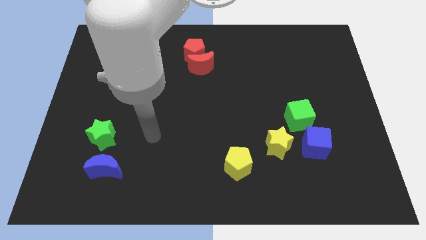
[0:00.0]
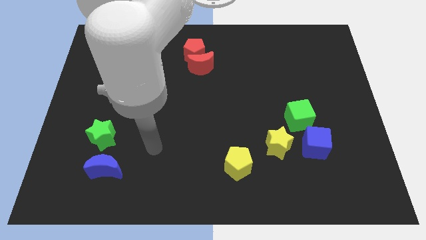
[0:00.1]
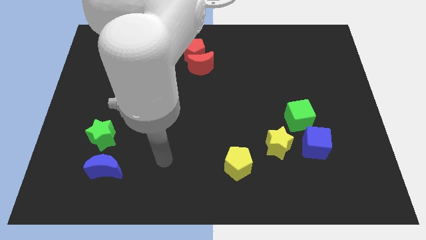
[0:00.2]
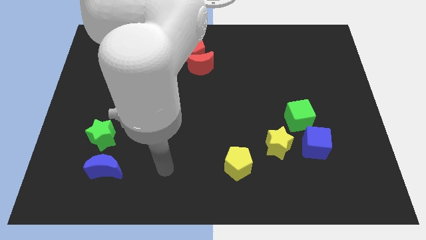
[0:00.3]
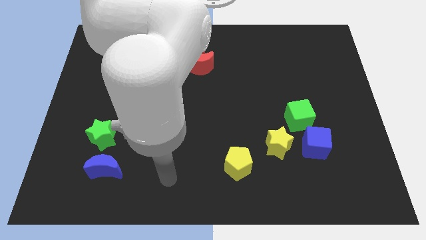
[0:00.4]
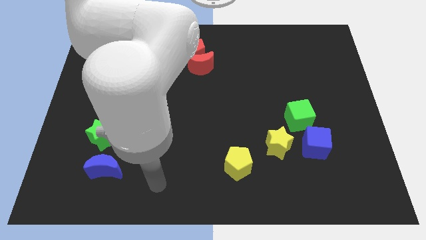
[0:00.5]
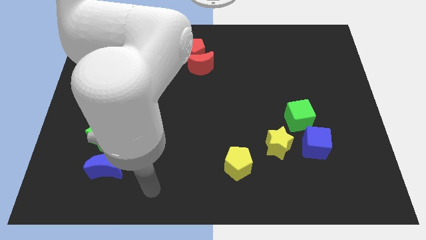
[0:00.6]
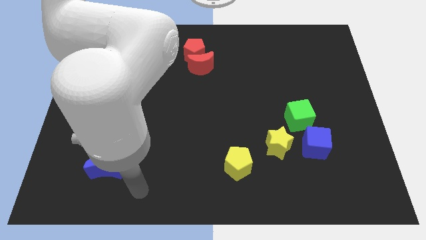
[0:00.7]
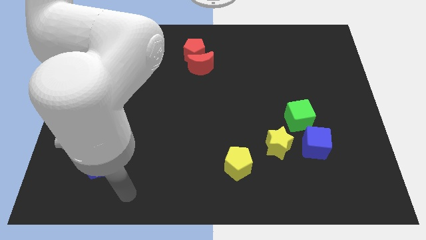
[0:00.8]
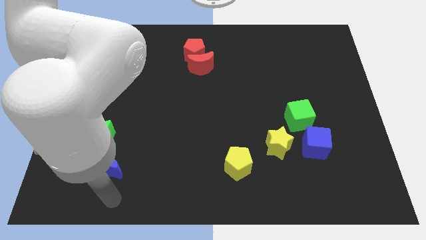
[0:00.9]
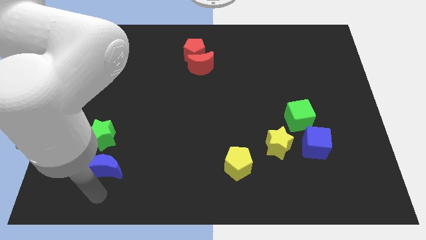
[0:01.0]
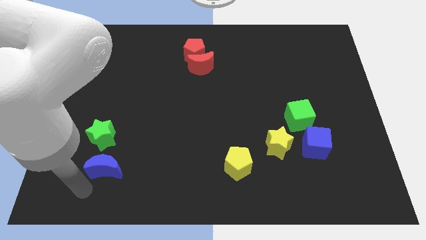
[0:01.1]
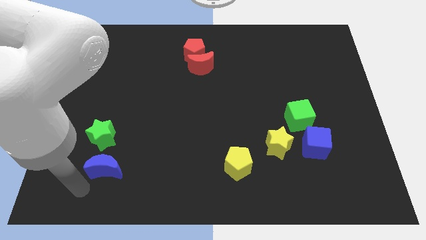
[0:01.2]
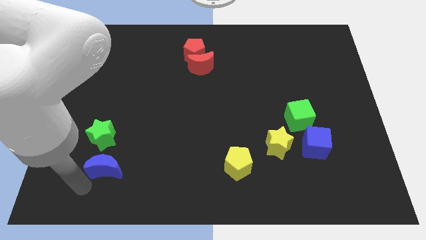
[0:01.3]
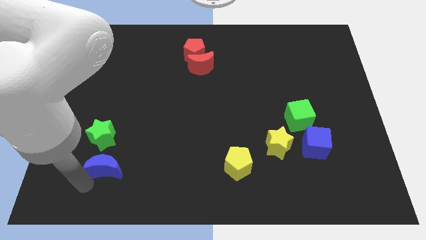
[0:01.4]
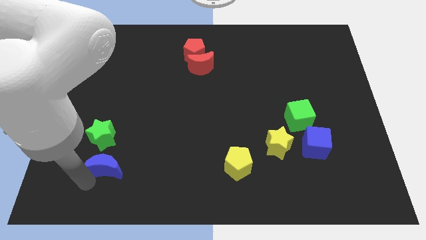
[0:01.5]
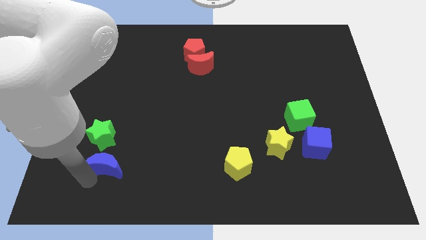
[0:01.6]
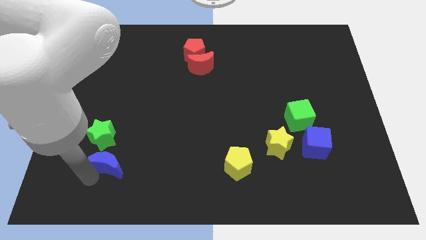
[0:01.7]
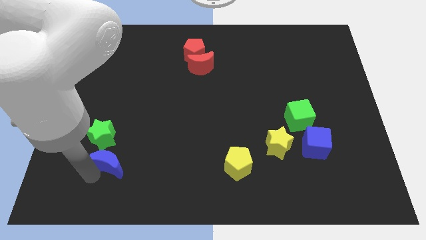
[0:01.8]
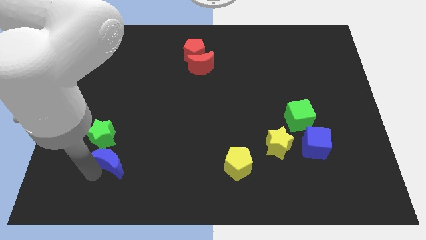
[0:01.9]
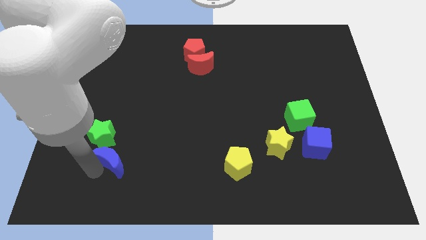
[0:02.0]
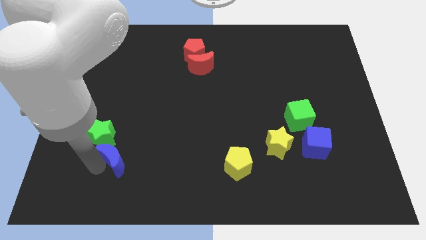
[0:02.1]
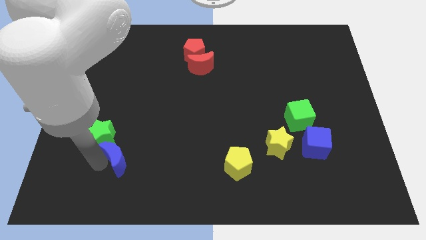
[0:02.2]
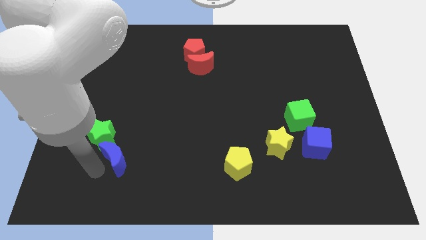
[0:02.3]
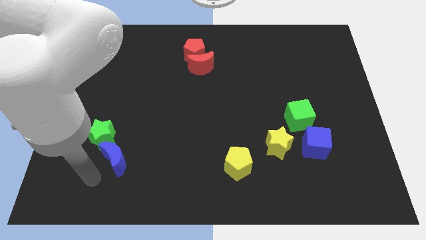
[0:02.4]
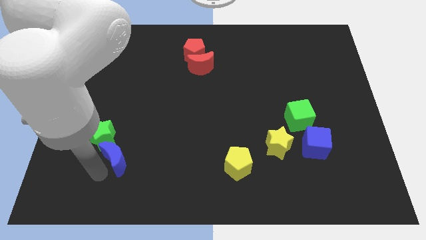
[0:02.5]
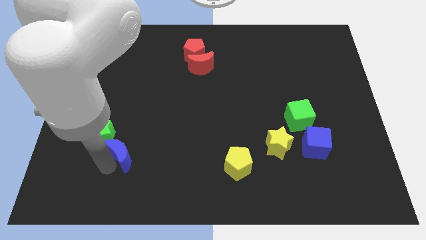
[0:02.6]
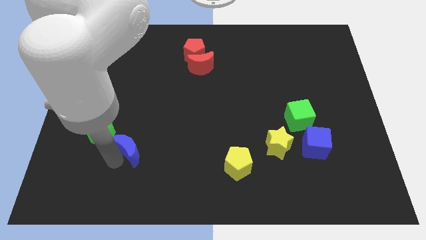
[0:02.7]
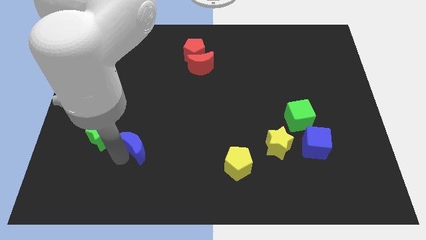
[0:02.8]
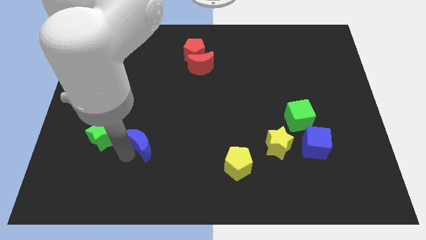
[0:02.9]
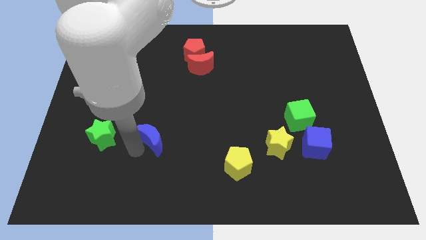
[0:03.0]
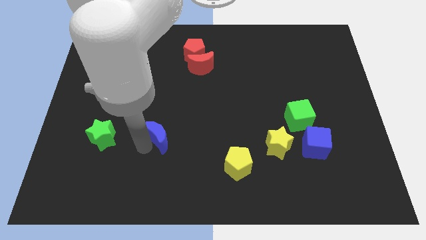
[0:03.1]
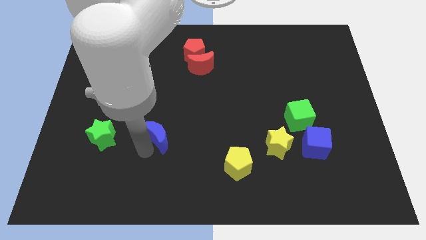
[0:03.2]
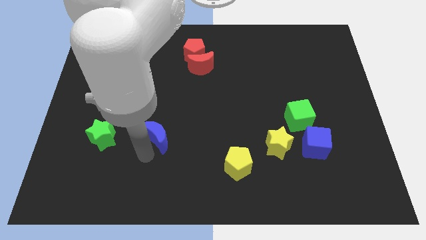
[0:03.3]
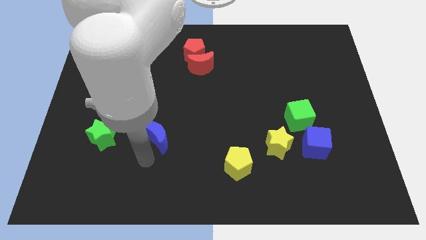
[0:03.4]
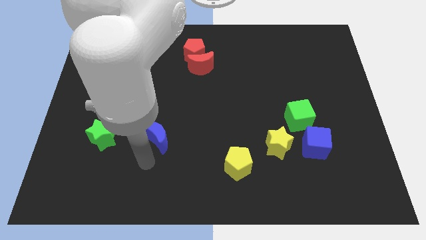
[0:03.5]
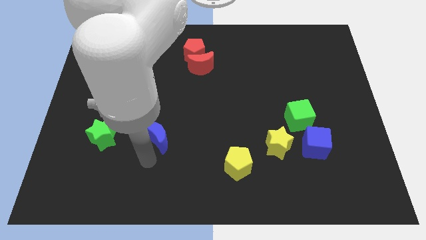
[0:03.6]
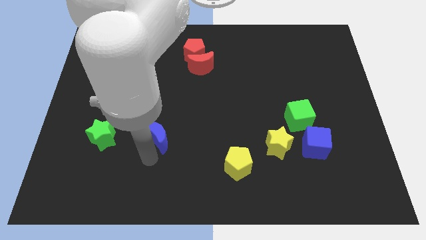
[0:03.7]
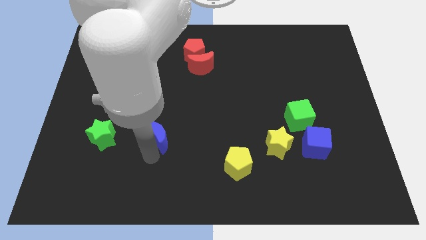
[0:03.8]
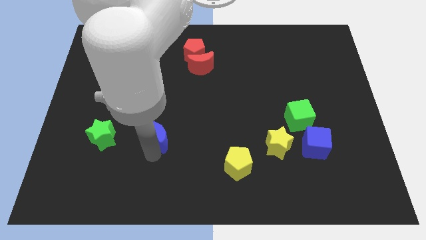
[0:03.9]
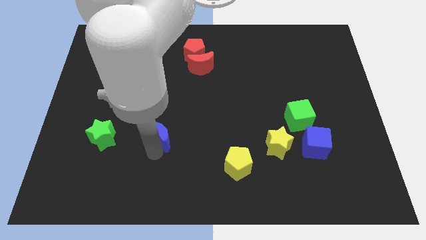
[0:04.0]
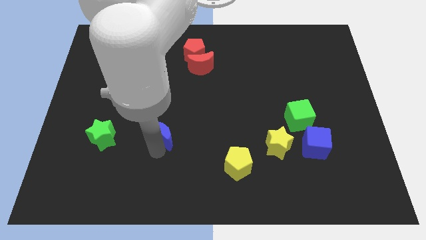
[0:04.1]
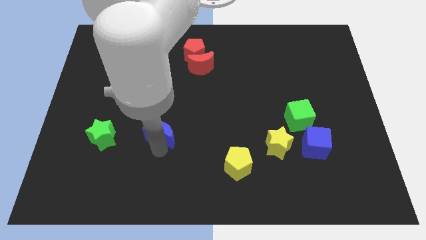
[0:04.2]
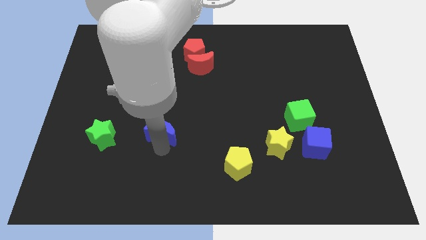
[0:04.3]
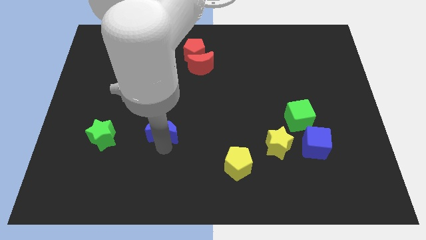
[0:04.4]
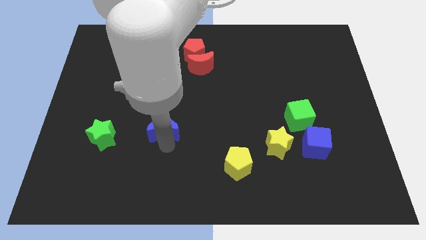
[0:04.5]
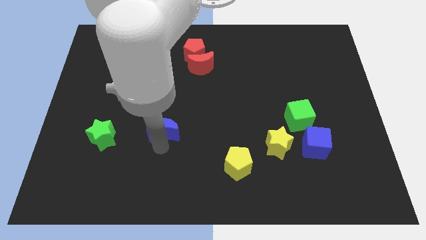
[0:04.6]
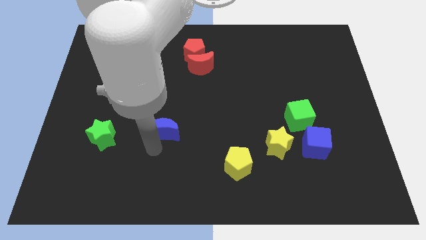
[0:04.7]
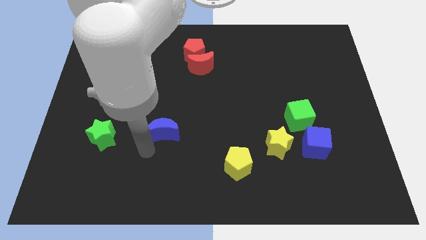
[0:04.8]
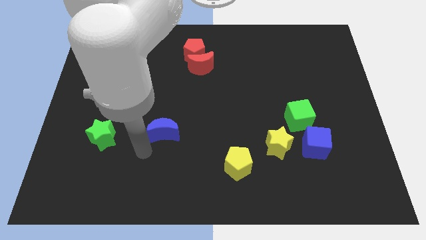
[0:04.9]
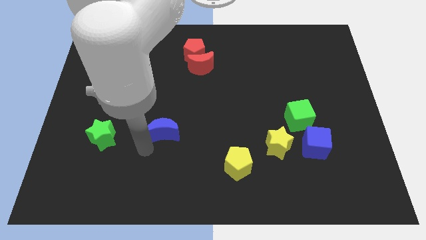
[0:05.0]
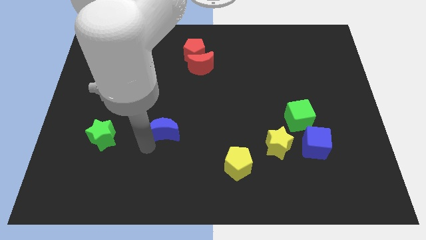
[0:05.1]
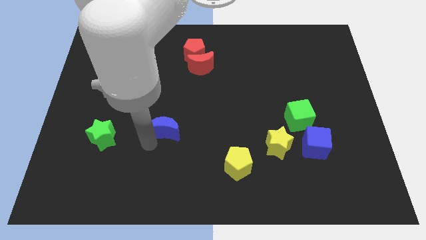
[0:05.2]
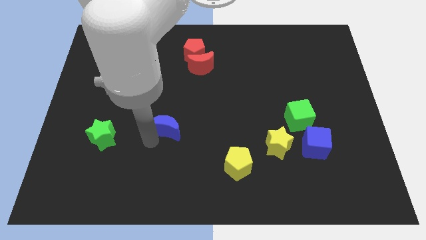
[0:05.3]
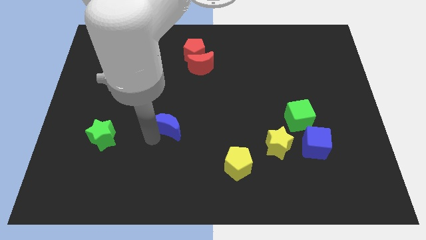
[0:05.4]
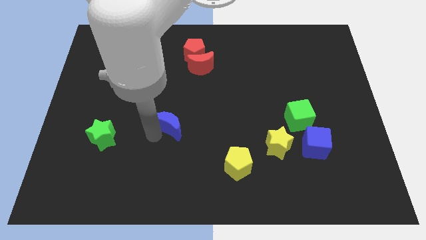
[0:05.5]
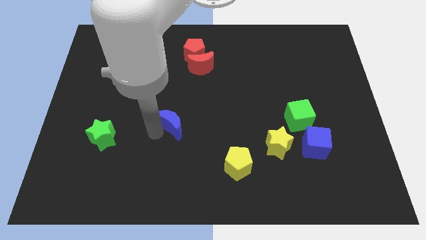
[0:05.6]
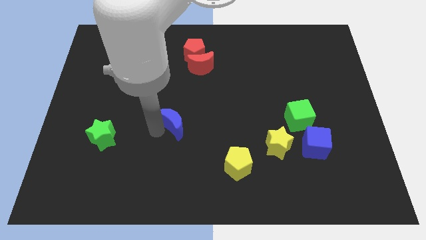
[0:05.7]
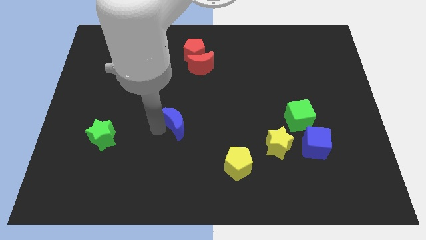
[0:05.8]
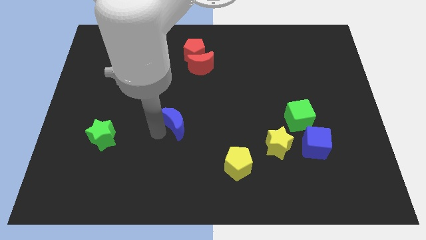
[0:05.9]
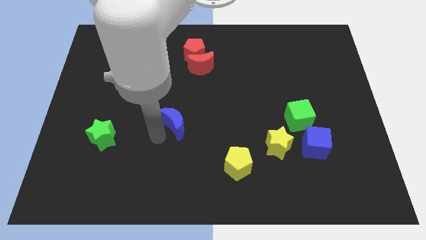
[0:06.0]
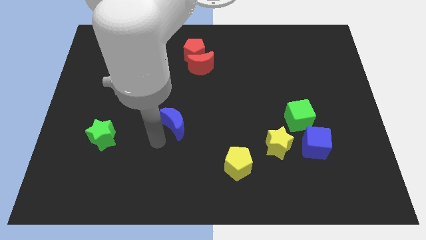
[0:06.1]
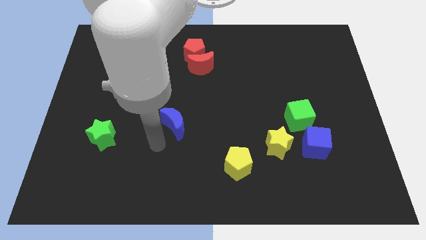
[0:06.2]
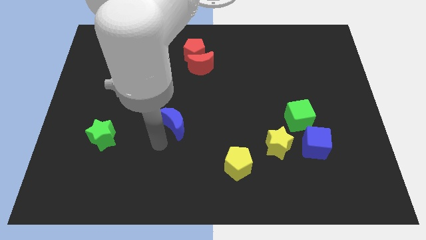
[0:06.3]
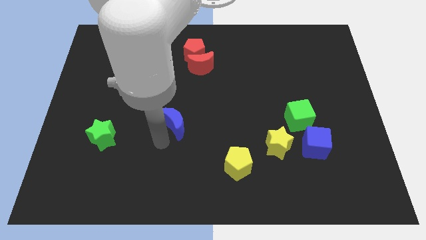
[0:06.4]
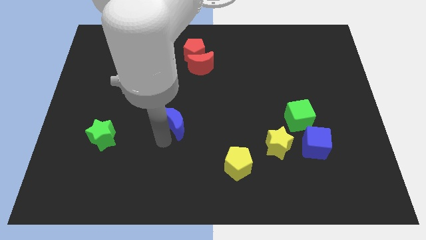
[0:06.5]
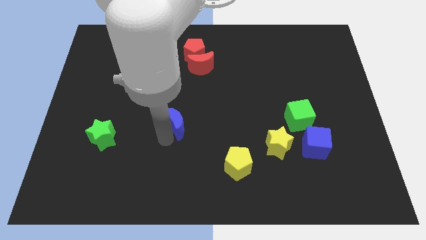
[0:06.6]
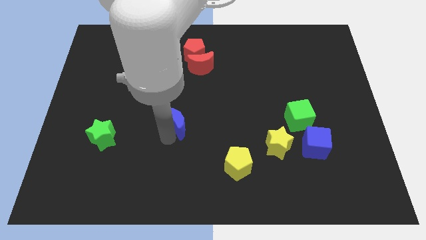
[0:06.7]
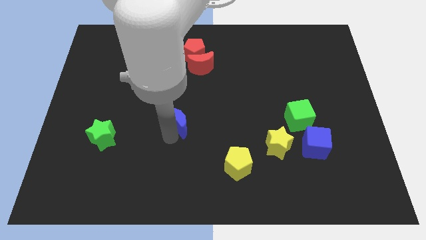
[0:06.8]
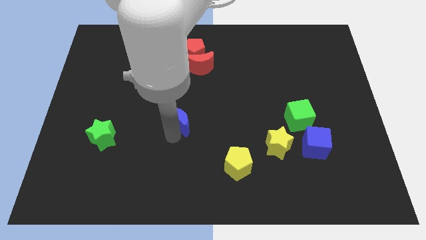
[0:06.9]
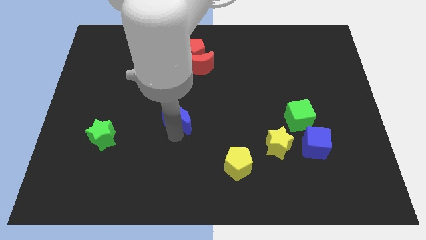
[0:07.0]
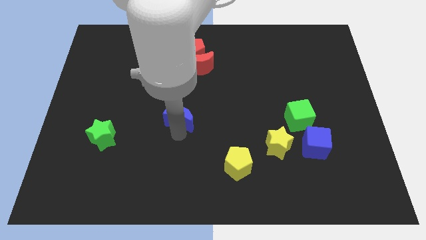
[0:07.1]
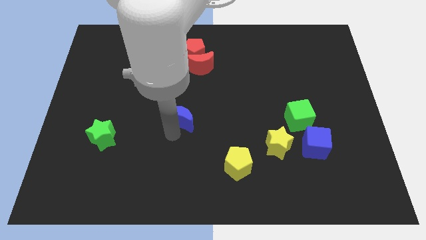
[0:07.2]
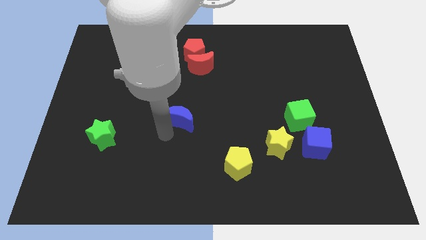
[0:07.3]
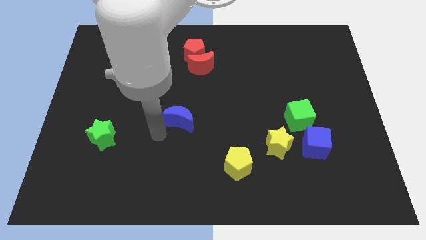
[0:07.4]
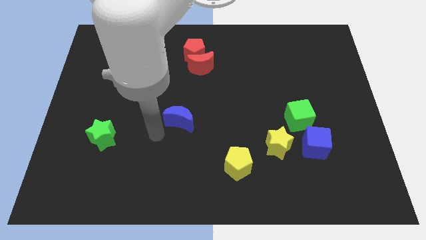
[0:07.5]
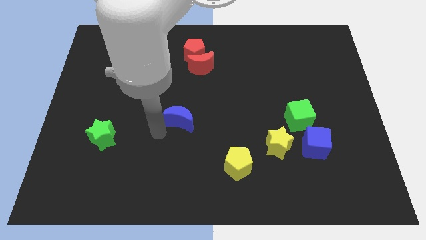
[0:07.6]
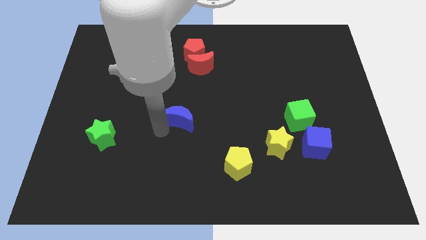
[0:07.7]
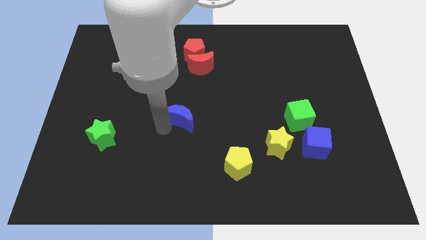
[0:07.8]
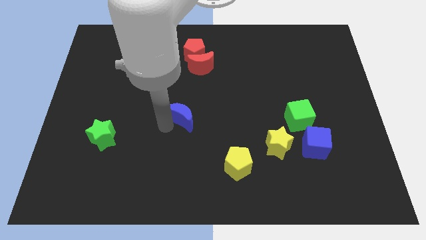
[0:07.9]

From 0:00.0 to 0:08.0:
slide the blue moon up and to the right diagonally

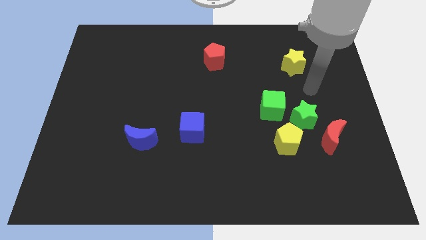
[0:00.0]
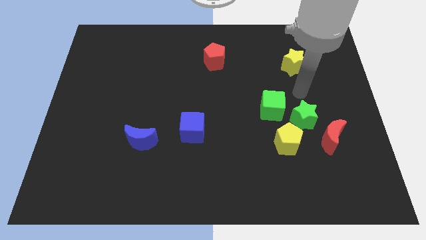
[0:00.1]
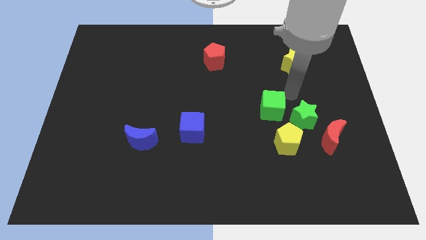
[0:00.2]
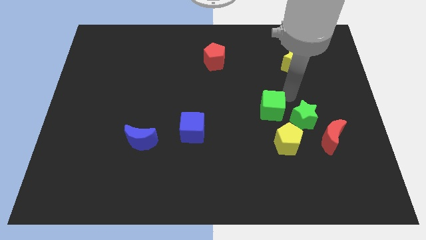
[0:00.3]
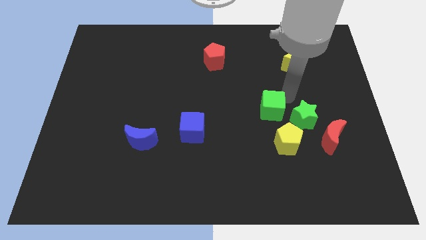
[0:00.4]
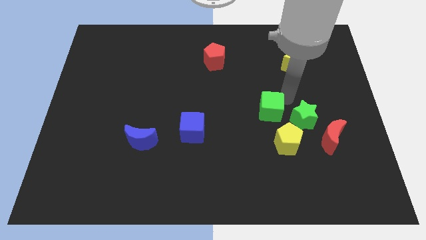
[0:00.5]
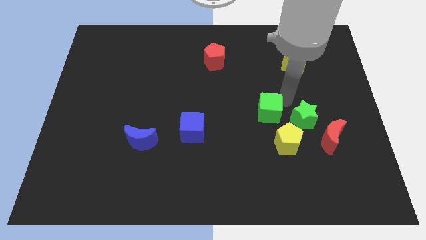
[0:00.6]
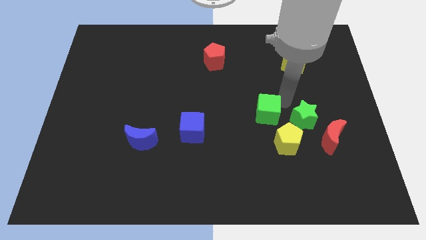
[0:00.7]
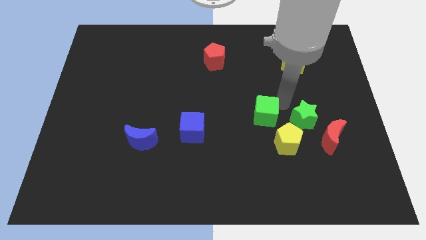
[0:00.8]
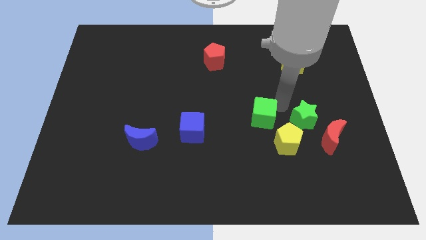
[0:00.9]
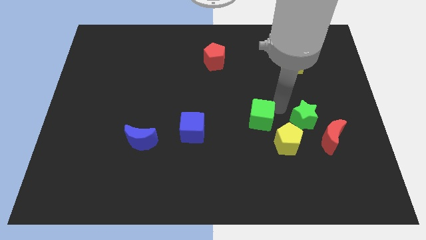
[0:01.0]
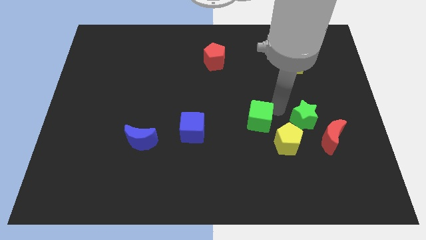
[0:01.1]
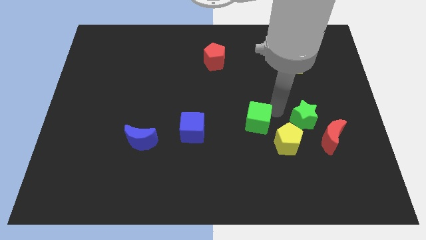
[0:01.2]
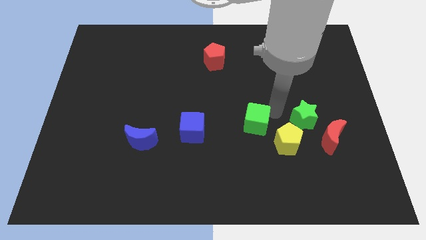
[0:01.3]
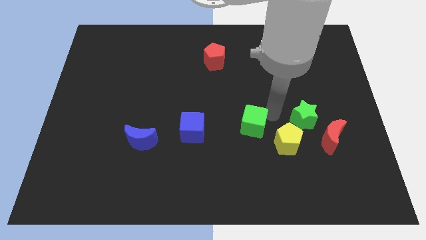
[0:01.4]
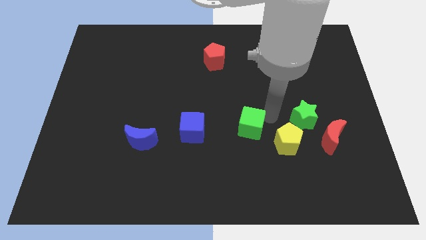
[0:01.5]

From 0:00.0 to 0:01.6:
slide the green cube down and left slightly
